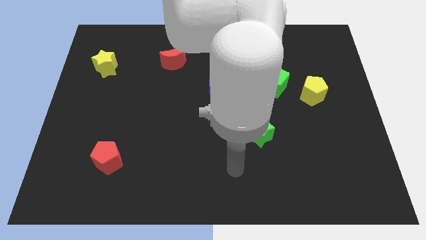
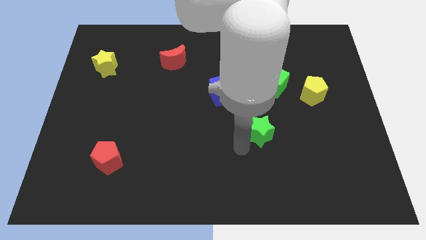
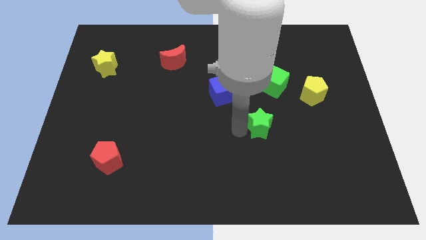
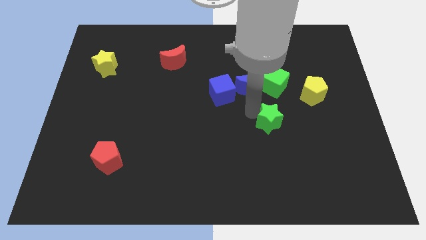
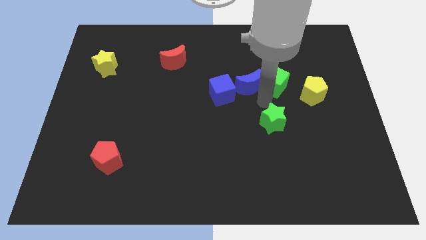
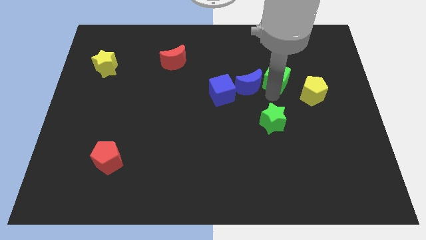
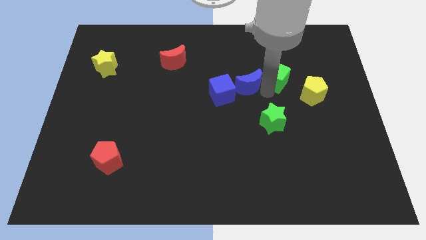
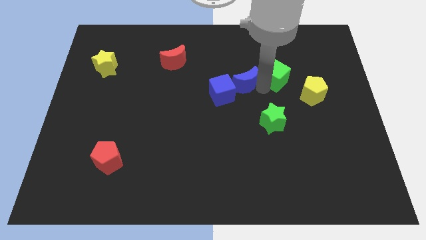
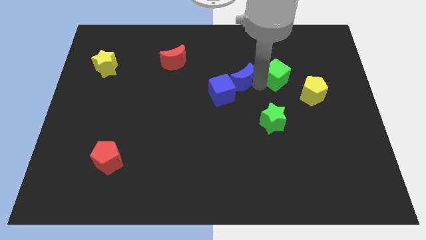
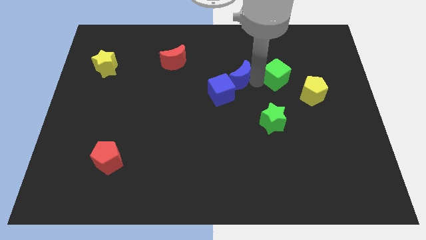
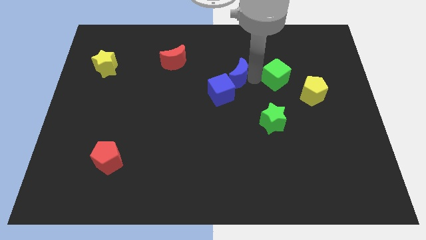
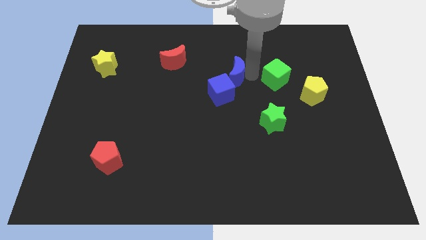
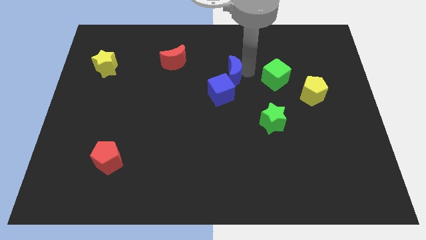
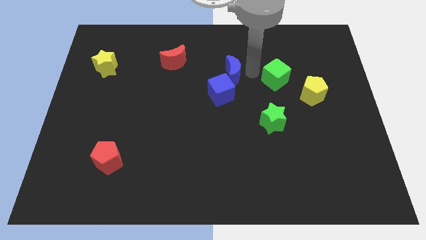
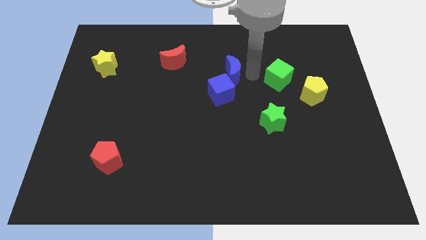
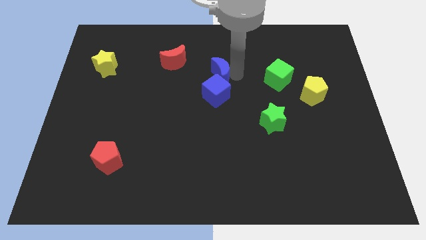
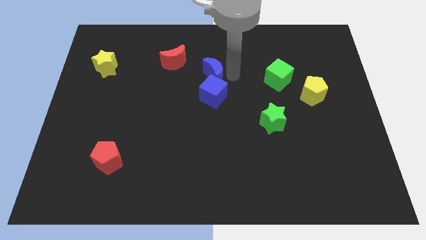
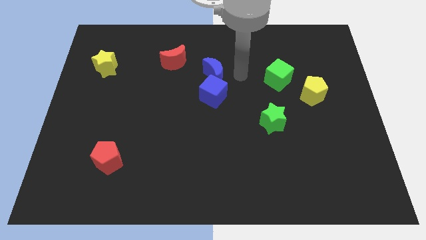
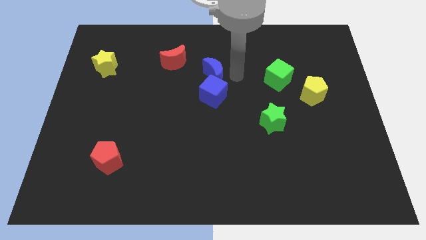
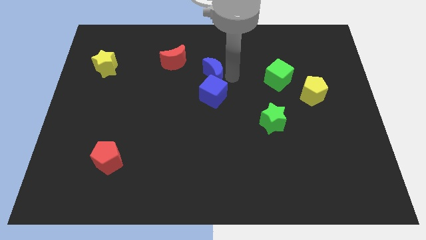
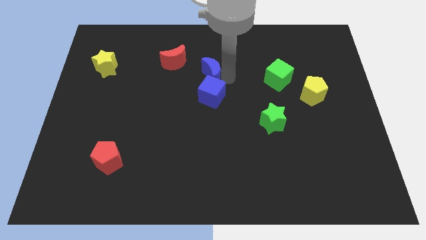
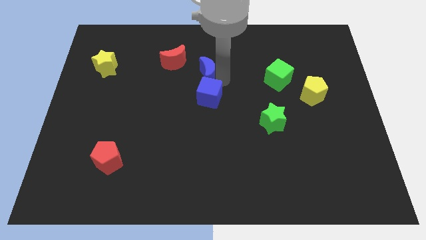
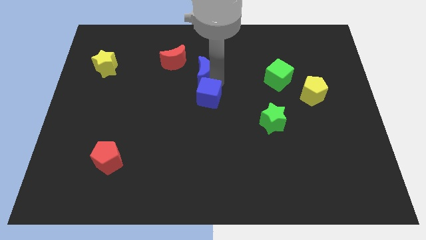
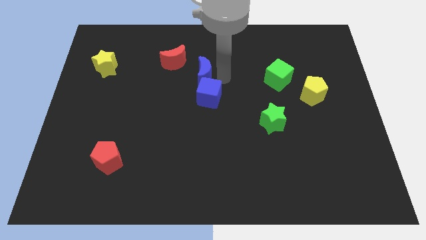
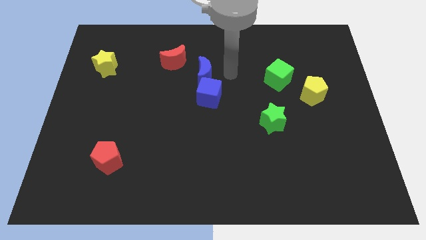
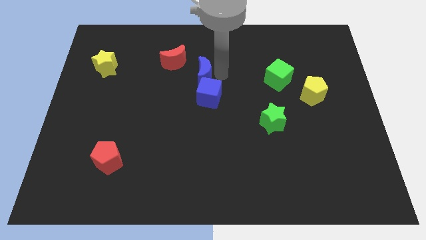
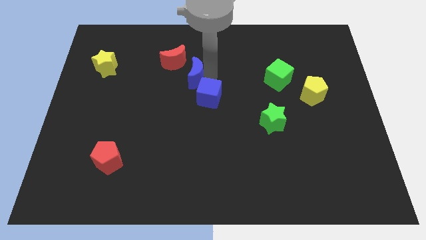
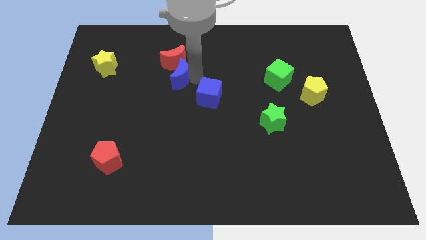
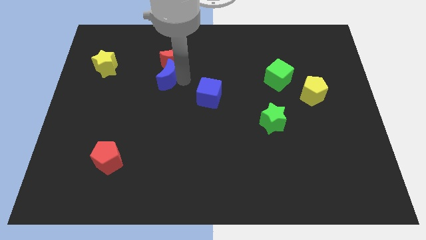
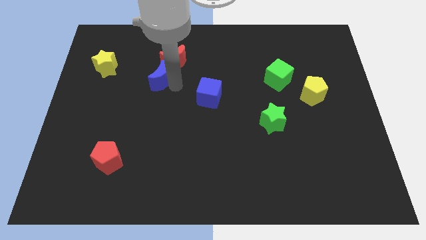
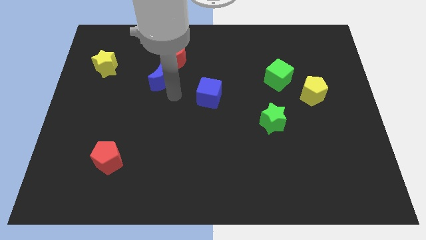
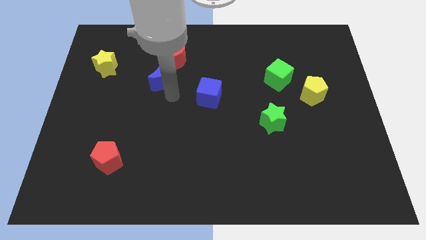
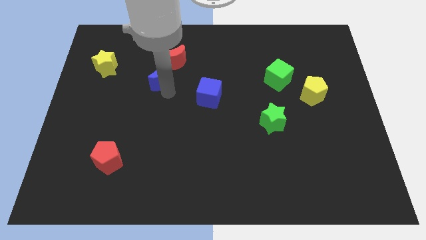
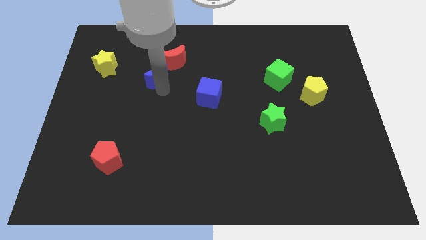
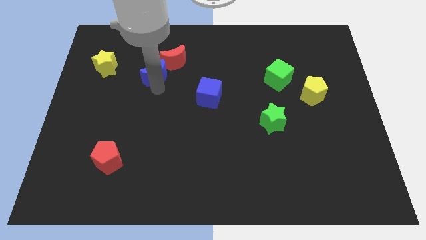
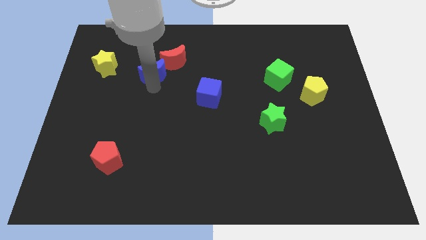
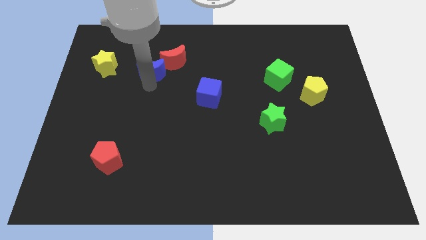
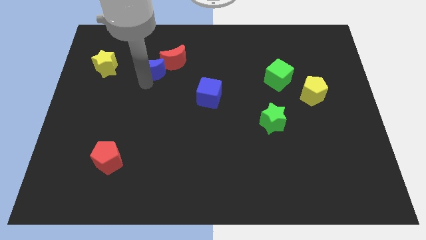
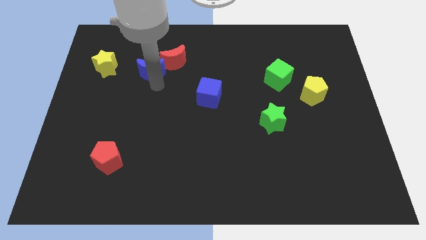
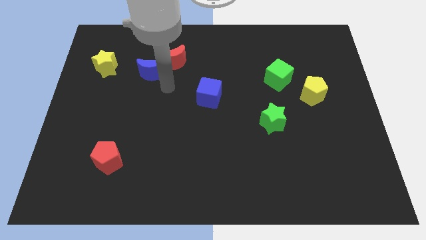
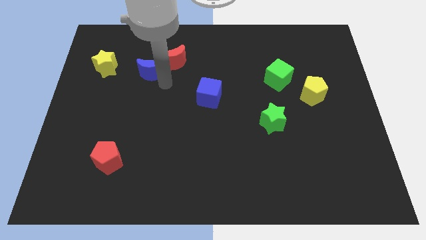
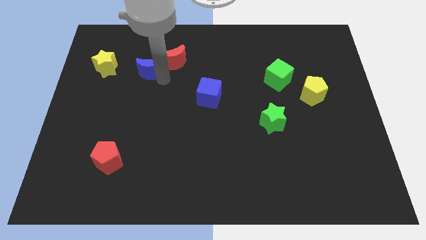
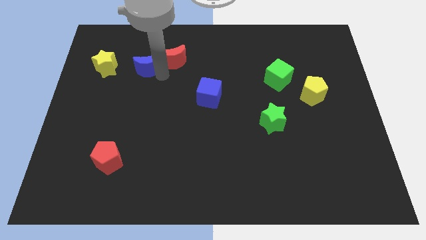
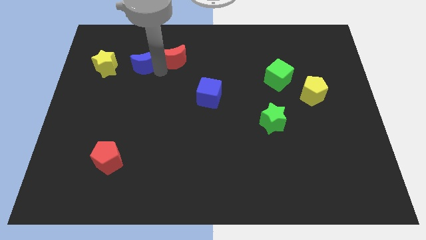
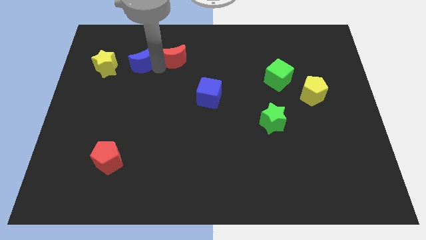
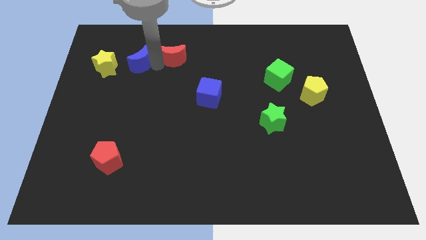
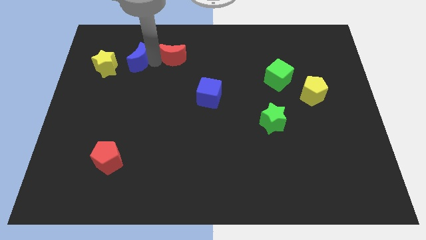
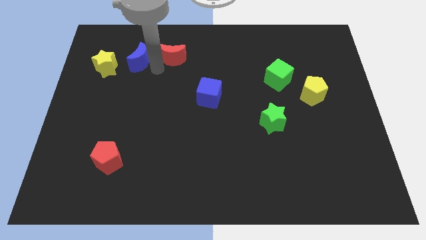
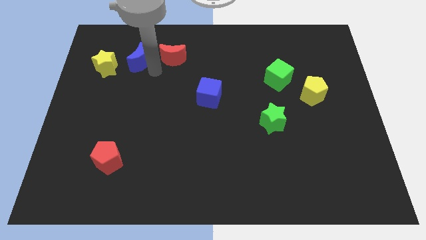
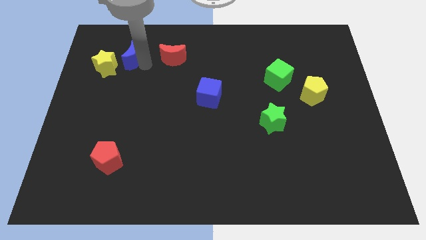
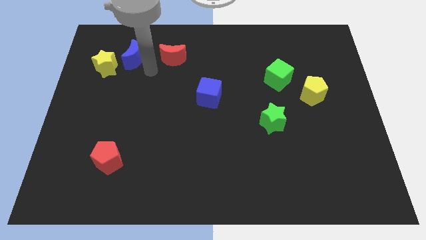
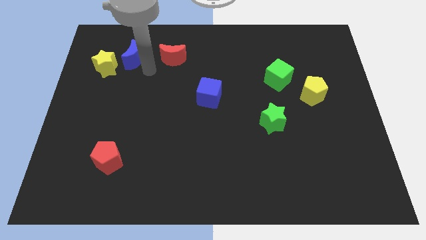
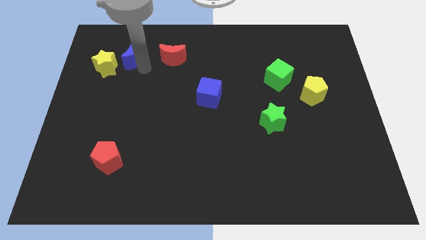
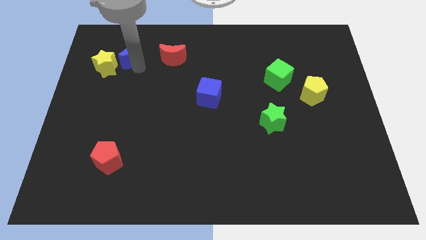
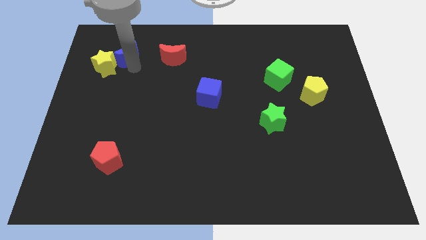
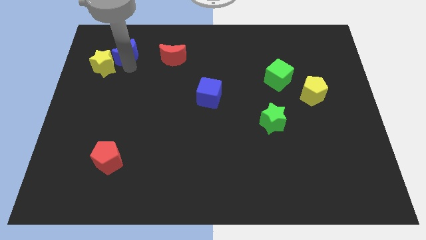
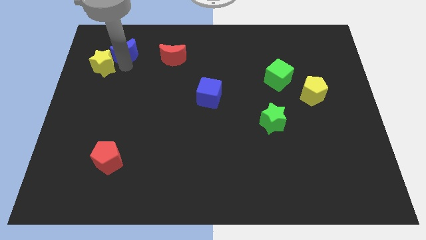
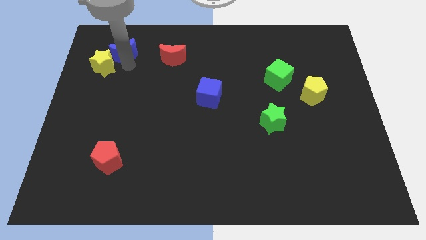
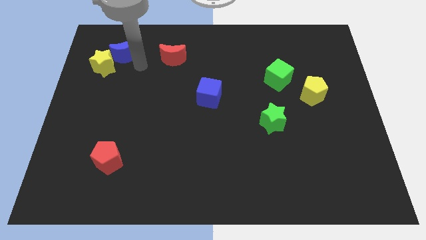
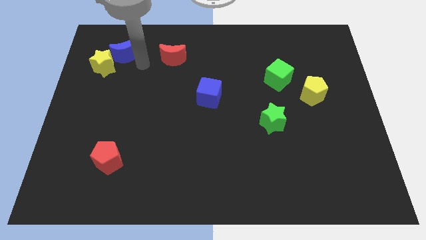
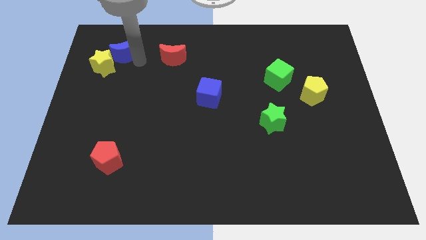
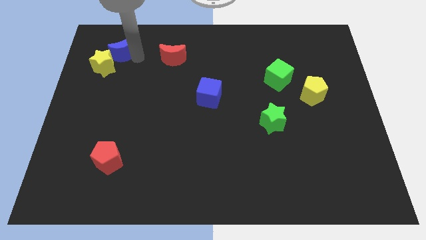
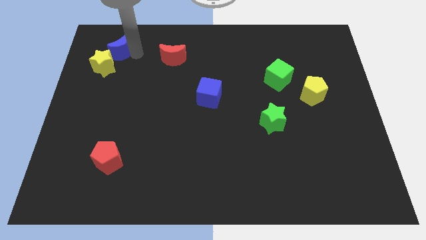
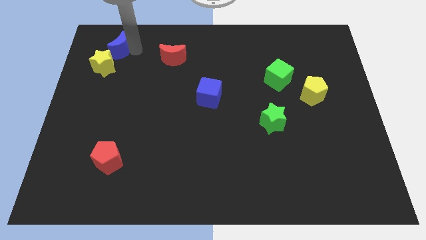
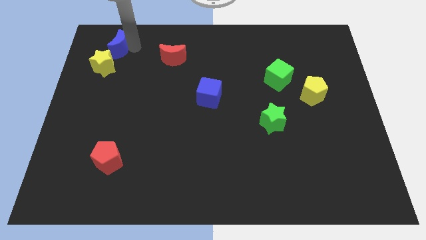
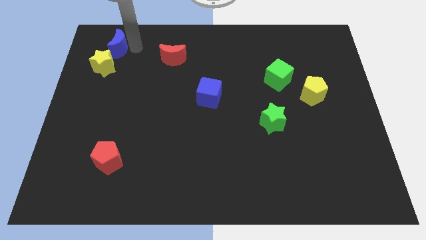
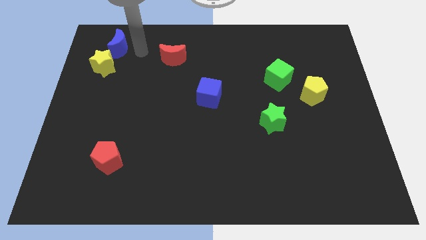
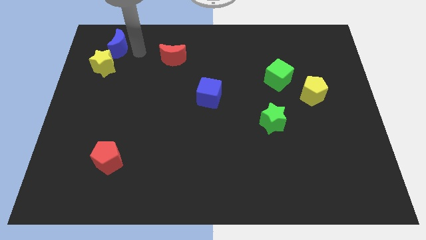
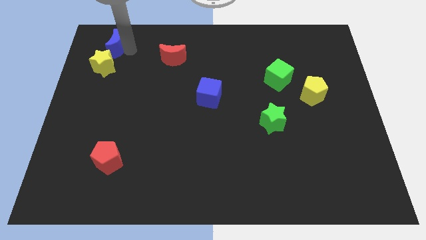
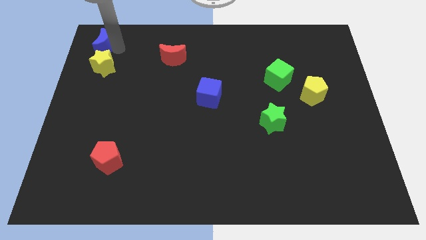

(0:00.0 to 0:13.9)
slide the blue moon to the top left
